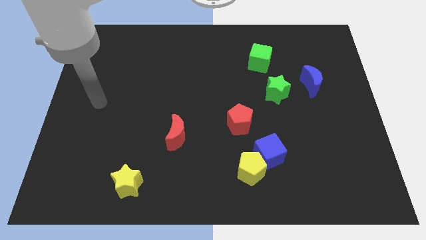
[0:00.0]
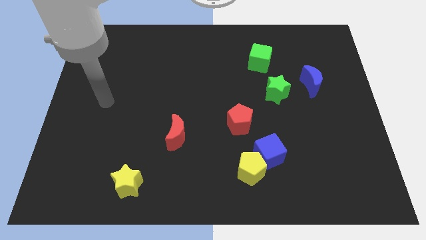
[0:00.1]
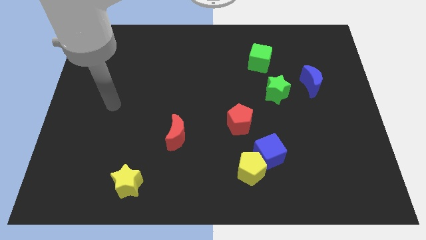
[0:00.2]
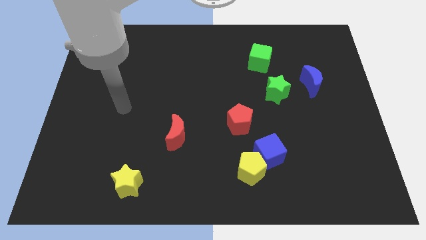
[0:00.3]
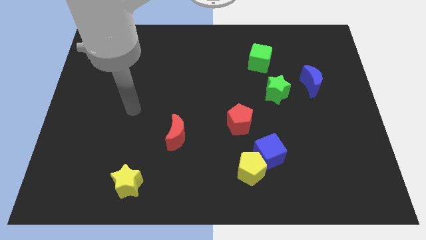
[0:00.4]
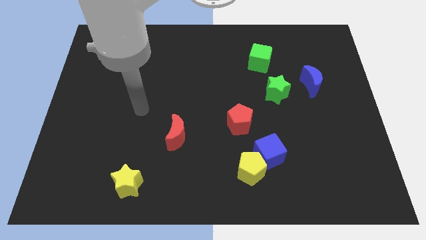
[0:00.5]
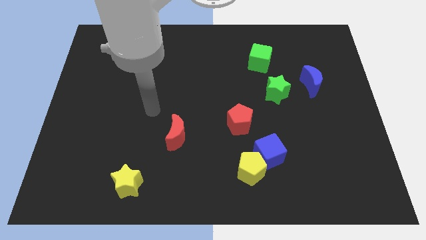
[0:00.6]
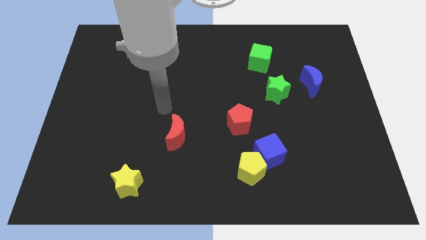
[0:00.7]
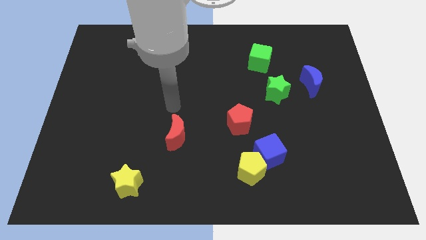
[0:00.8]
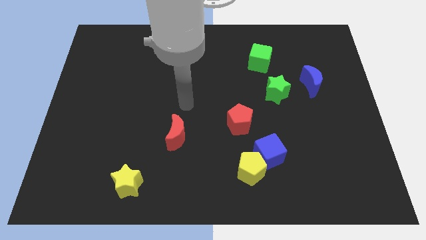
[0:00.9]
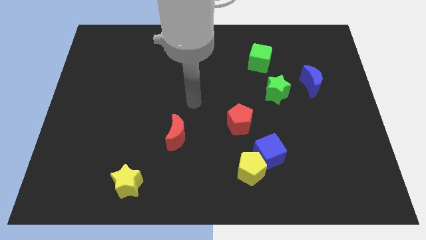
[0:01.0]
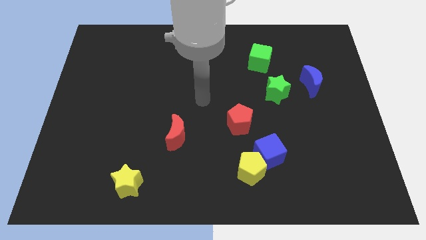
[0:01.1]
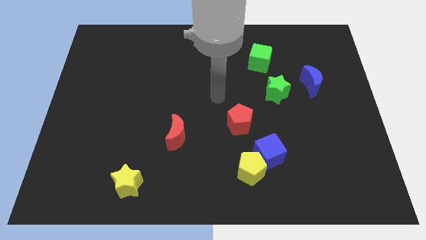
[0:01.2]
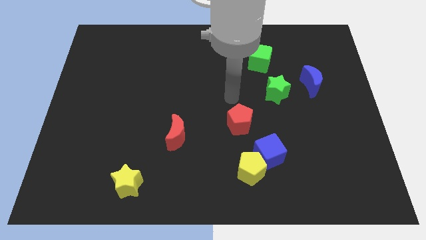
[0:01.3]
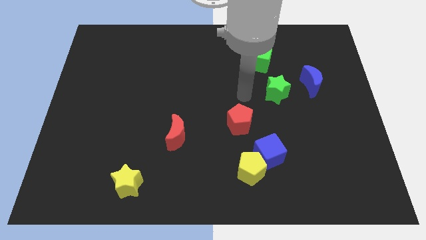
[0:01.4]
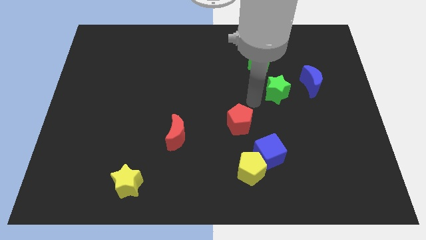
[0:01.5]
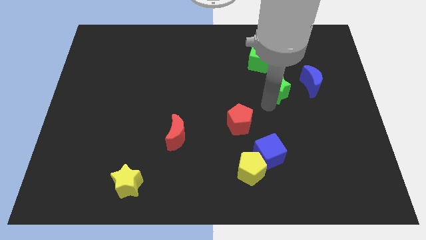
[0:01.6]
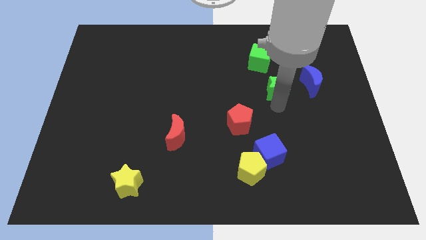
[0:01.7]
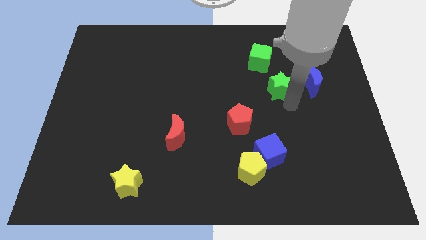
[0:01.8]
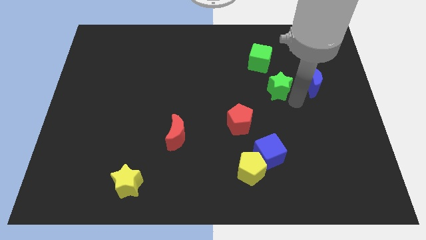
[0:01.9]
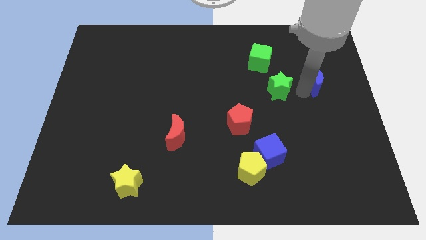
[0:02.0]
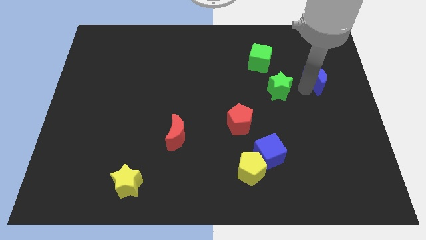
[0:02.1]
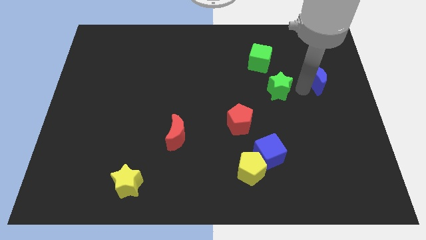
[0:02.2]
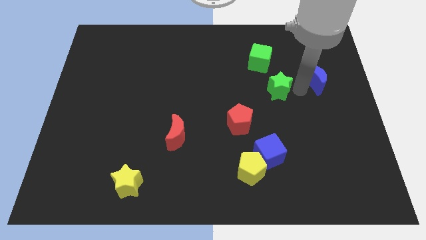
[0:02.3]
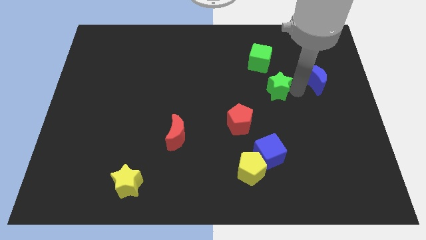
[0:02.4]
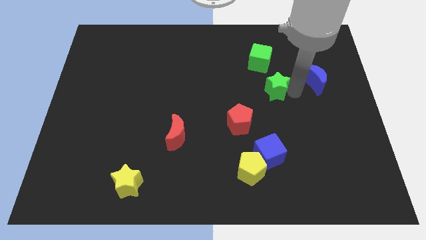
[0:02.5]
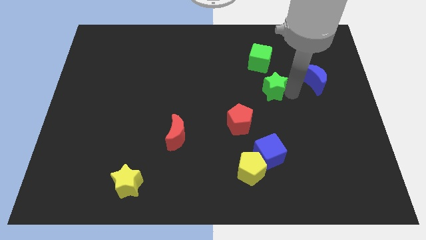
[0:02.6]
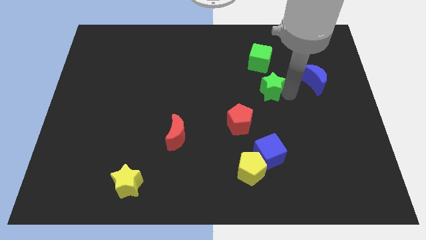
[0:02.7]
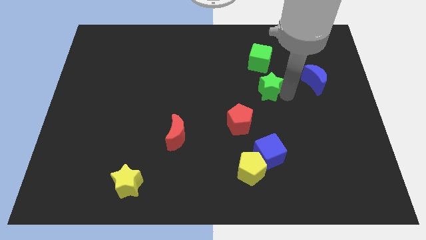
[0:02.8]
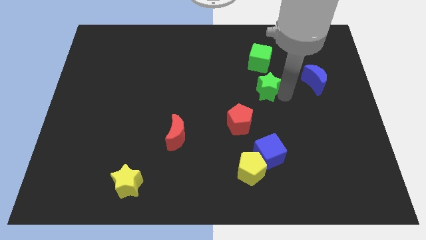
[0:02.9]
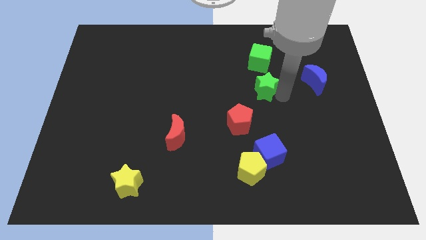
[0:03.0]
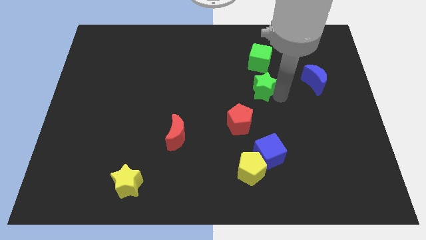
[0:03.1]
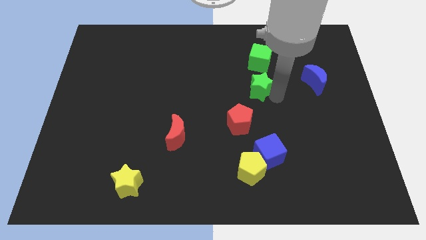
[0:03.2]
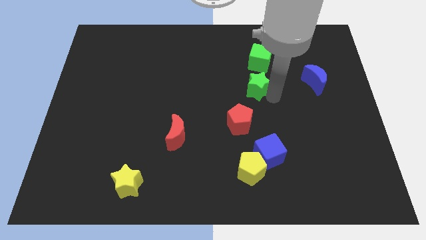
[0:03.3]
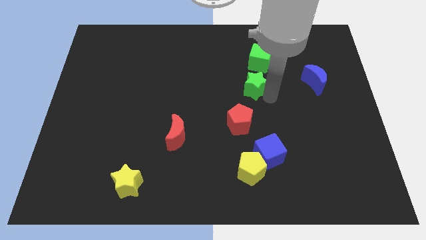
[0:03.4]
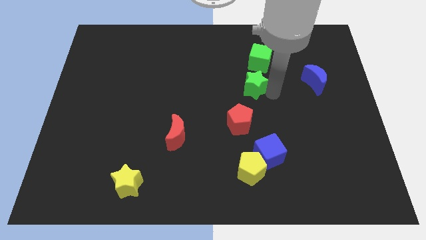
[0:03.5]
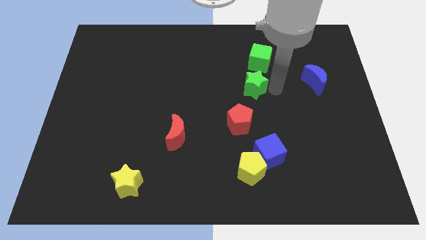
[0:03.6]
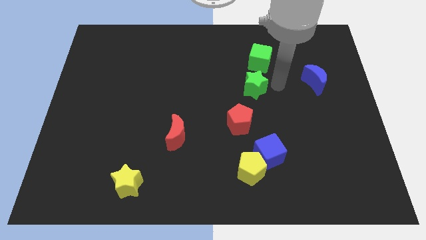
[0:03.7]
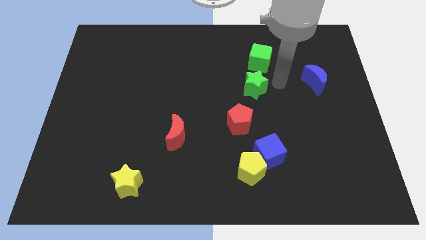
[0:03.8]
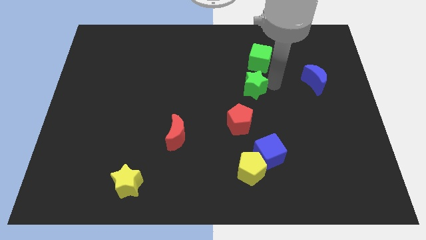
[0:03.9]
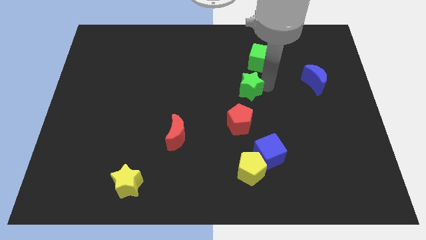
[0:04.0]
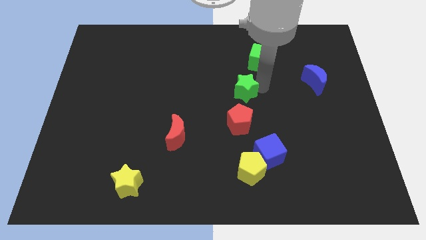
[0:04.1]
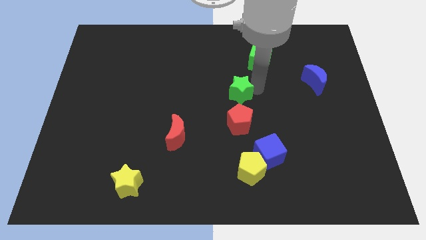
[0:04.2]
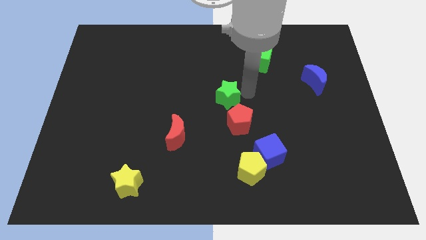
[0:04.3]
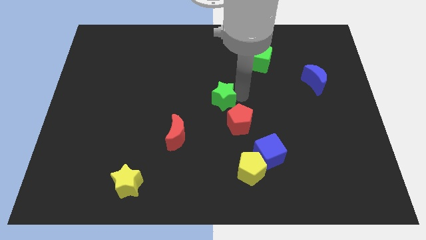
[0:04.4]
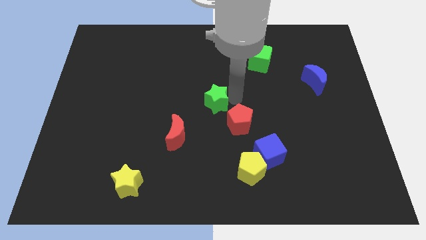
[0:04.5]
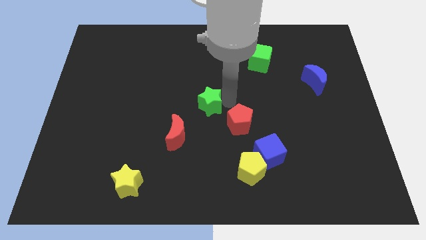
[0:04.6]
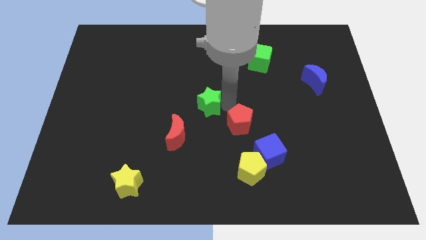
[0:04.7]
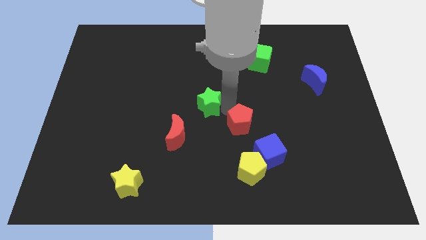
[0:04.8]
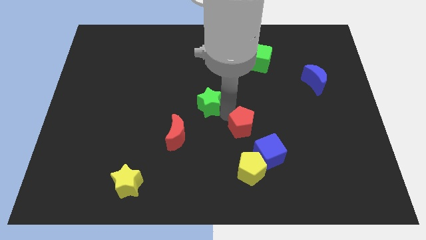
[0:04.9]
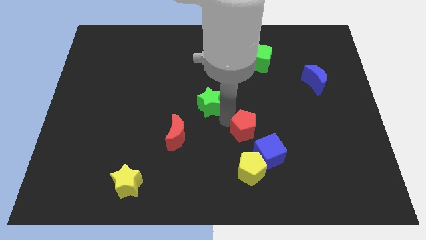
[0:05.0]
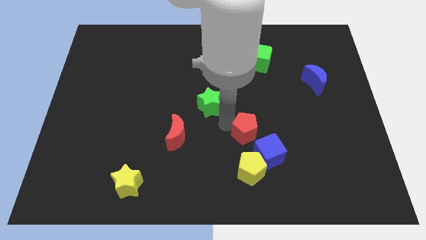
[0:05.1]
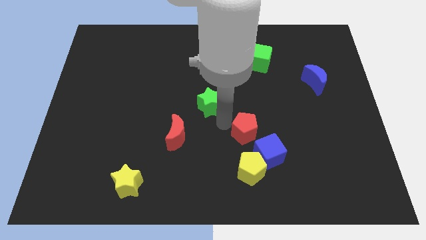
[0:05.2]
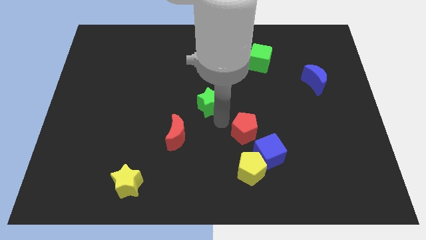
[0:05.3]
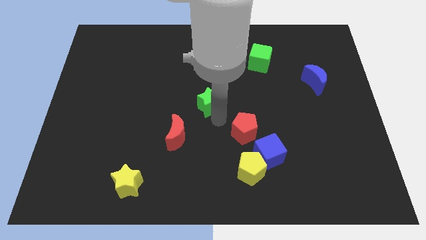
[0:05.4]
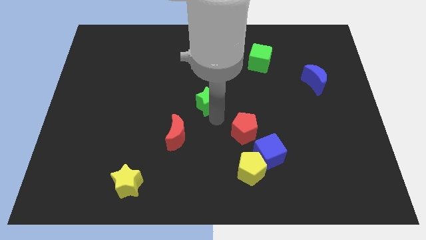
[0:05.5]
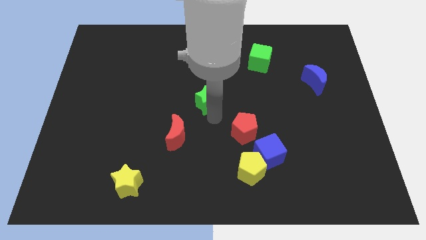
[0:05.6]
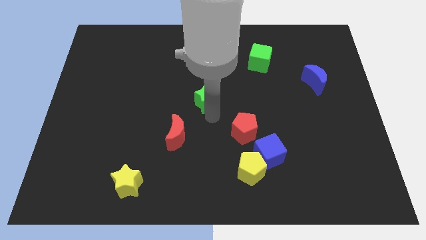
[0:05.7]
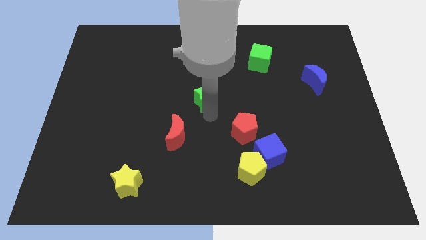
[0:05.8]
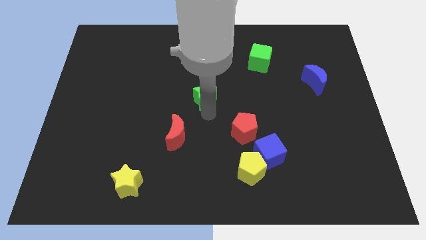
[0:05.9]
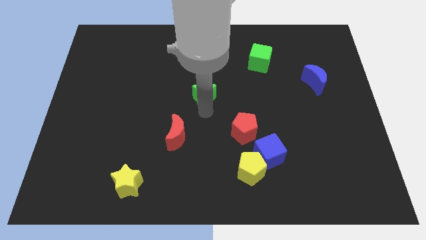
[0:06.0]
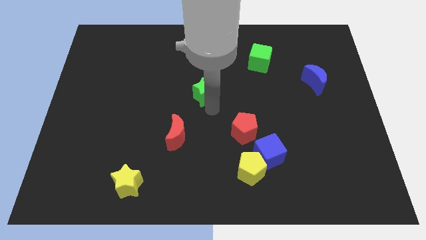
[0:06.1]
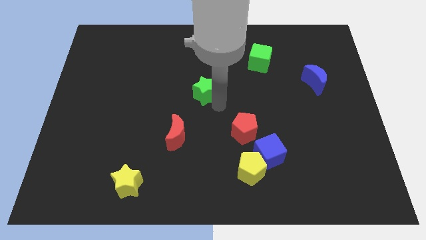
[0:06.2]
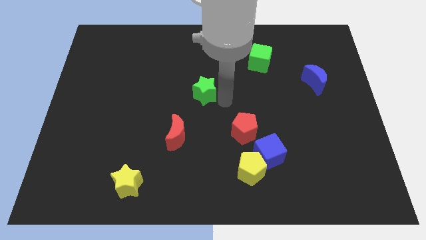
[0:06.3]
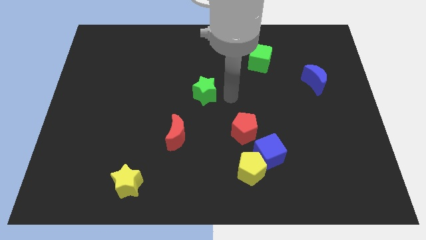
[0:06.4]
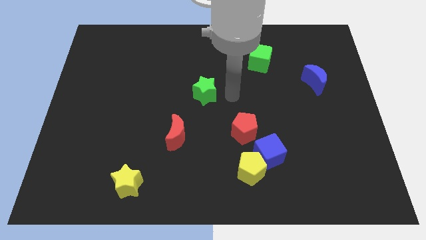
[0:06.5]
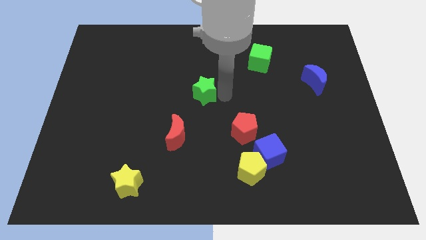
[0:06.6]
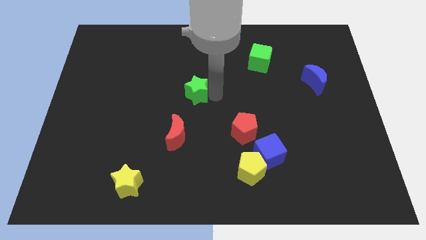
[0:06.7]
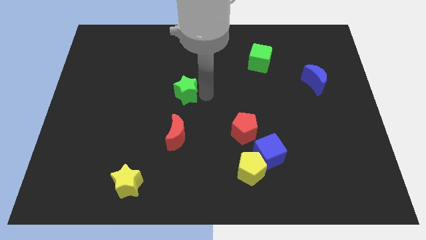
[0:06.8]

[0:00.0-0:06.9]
slide the green star to the left

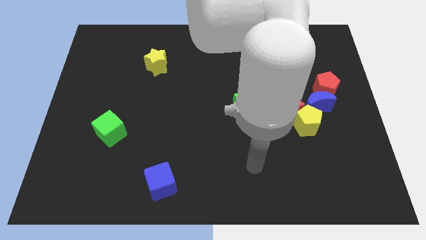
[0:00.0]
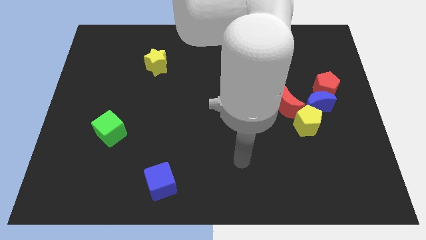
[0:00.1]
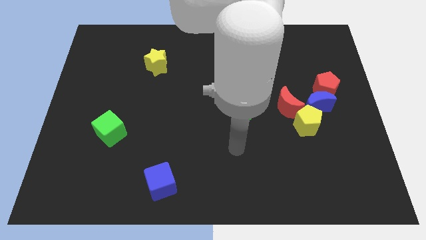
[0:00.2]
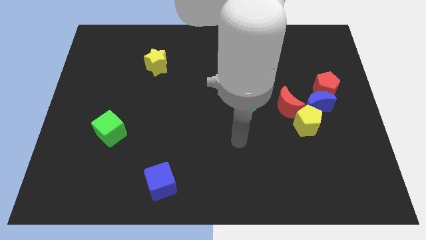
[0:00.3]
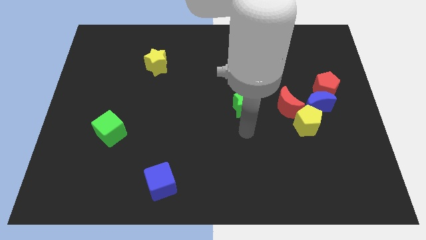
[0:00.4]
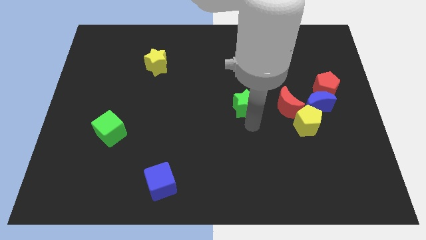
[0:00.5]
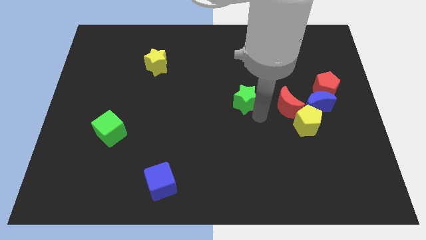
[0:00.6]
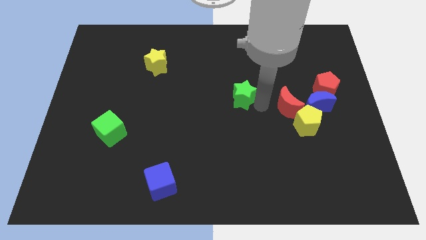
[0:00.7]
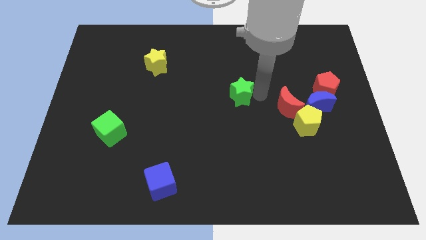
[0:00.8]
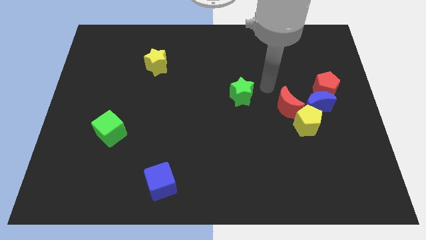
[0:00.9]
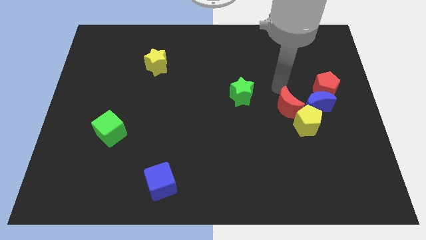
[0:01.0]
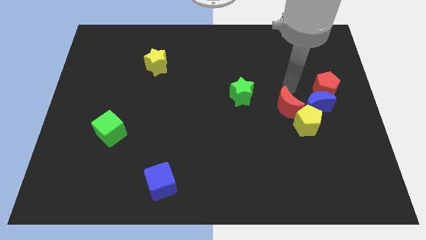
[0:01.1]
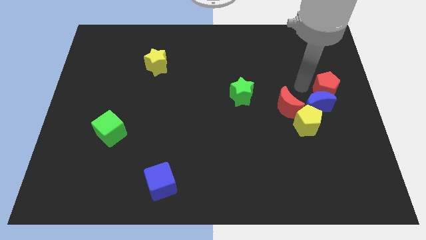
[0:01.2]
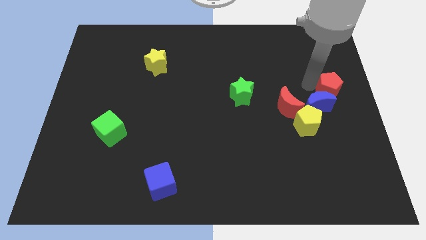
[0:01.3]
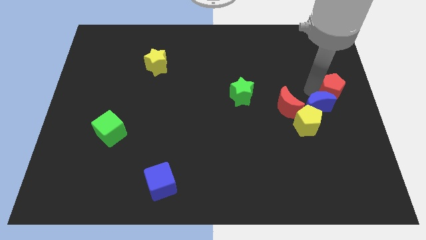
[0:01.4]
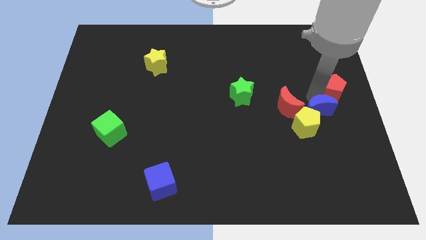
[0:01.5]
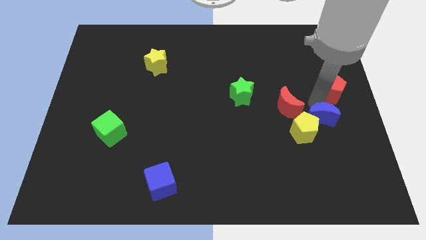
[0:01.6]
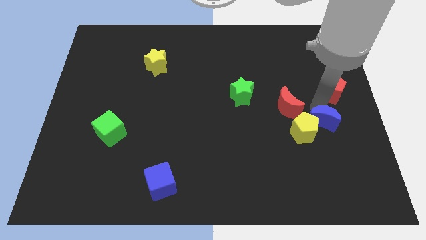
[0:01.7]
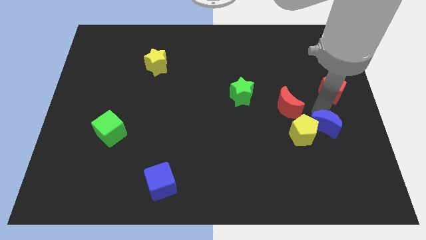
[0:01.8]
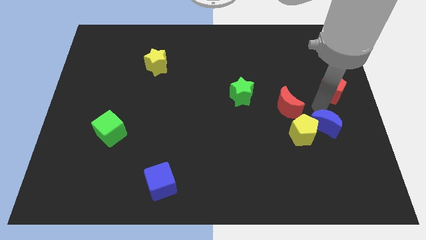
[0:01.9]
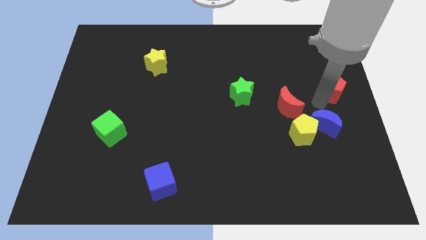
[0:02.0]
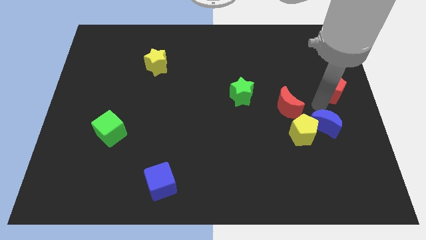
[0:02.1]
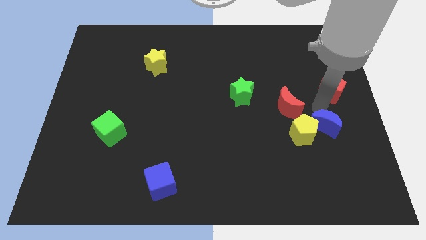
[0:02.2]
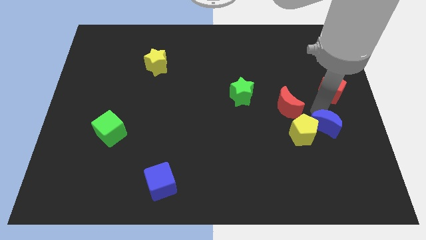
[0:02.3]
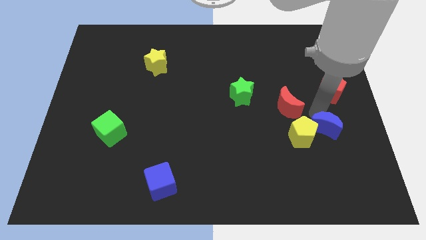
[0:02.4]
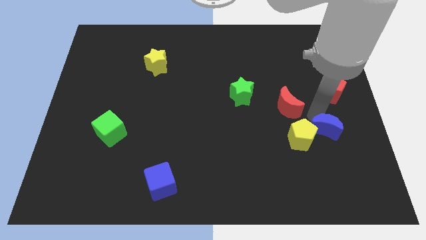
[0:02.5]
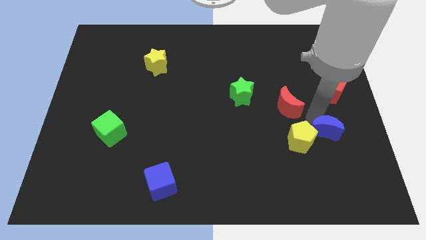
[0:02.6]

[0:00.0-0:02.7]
push the blue moon downwards a bit
